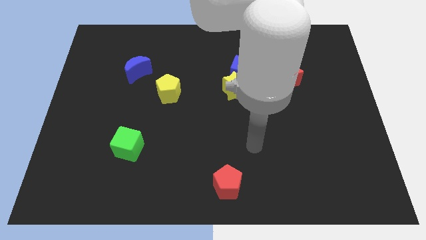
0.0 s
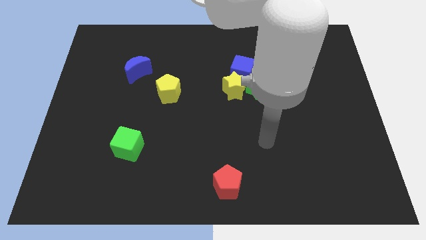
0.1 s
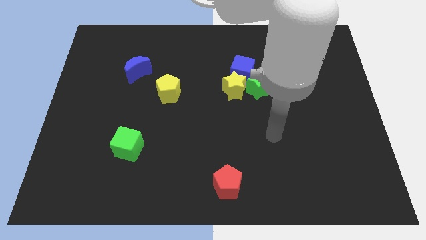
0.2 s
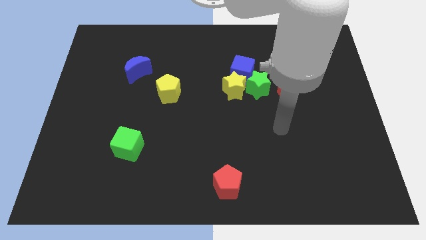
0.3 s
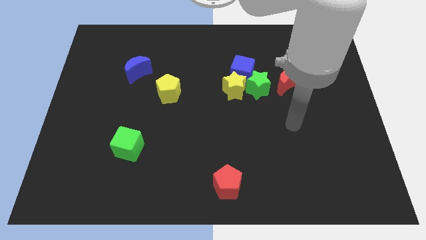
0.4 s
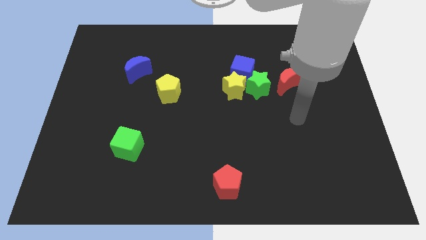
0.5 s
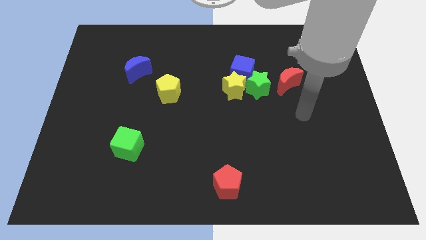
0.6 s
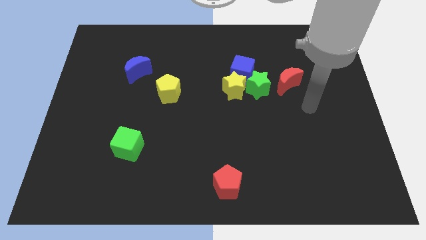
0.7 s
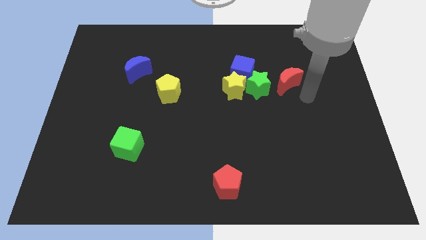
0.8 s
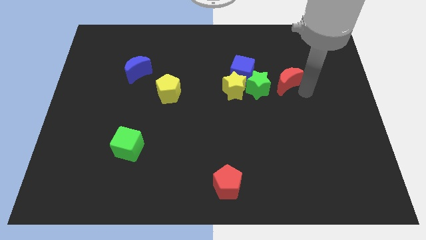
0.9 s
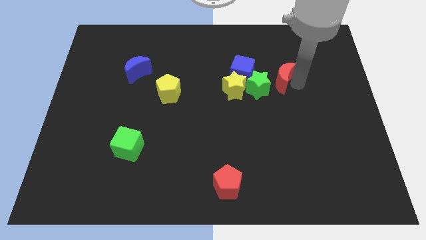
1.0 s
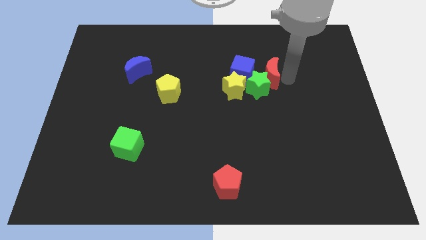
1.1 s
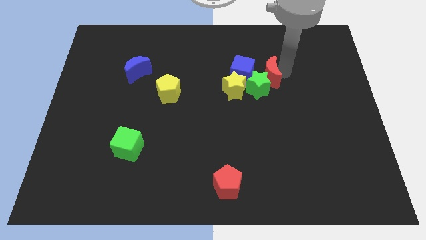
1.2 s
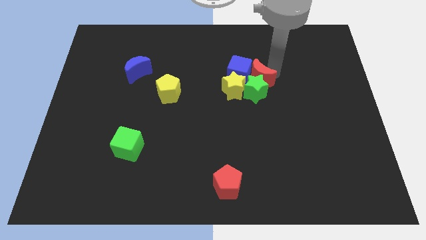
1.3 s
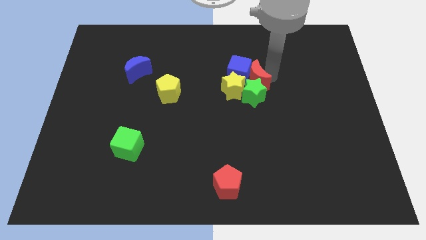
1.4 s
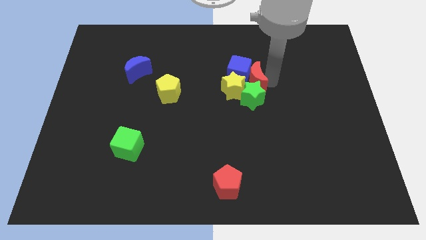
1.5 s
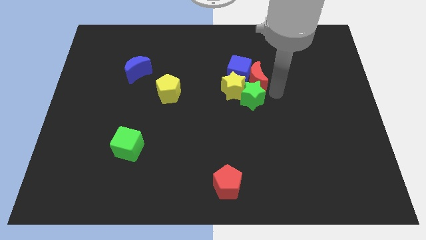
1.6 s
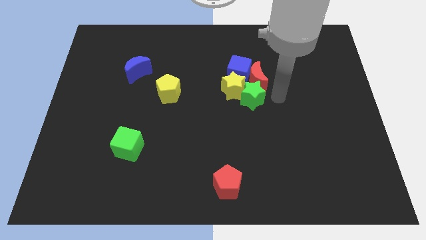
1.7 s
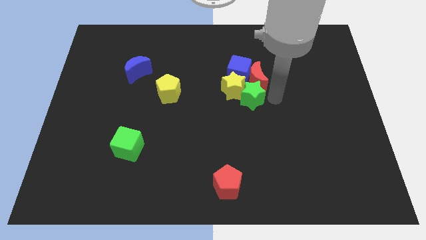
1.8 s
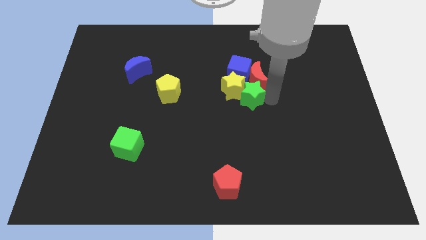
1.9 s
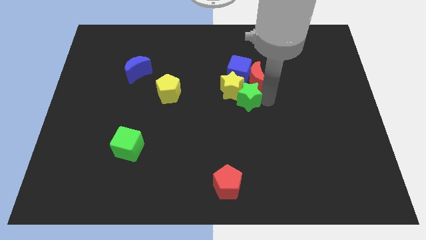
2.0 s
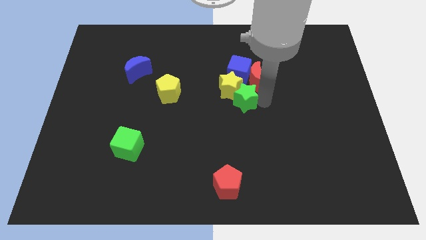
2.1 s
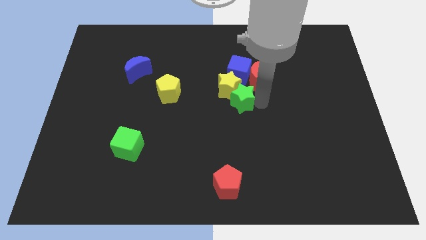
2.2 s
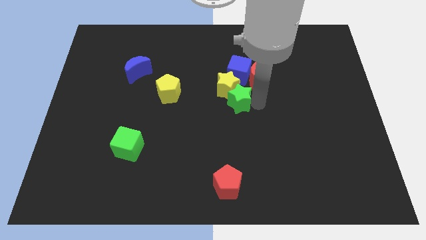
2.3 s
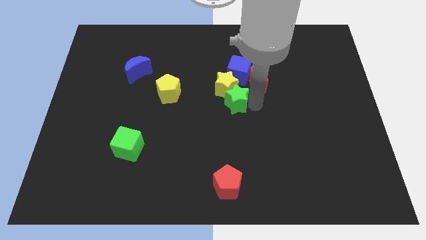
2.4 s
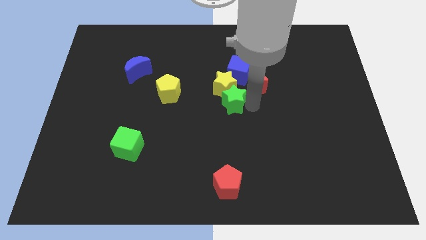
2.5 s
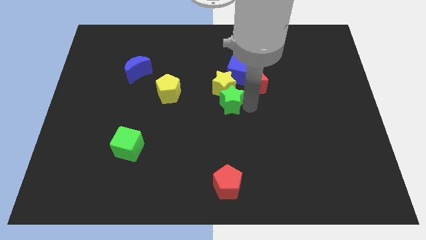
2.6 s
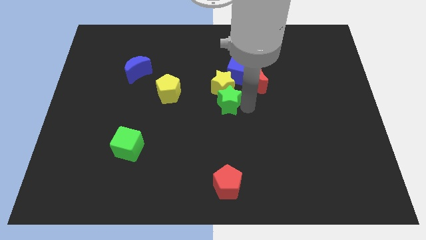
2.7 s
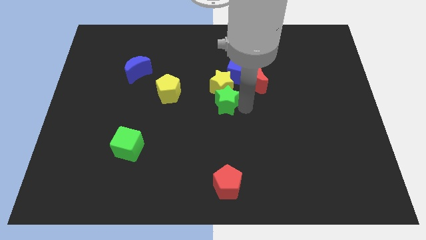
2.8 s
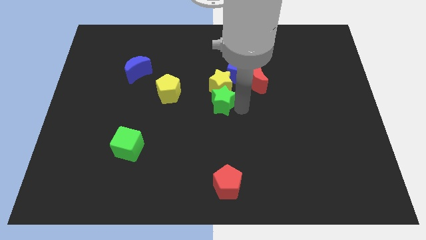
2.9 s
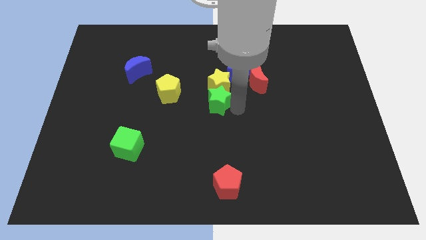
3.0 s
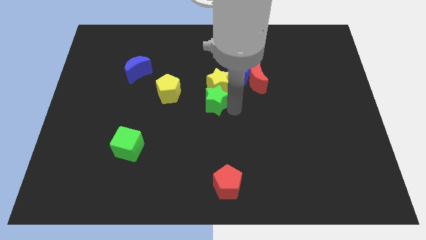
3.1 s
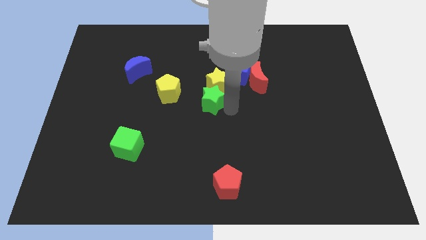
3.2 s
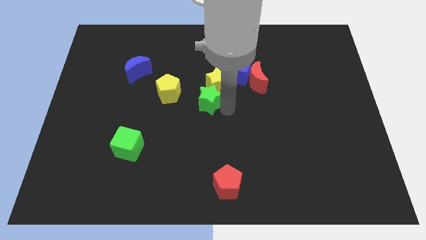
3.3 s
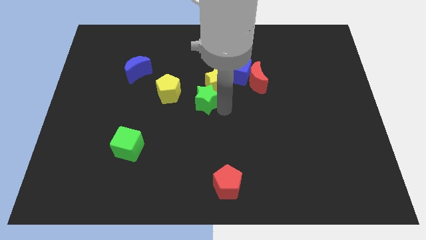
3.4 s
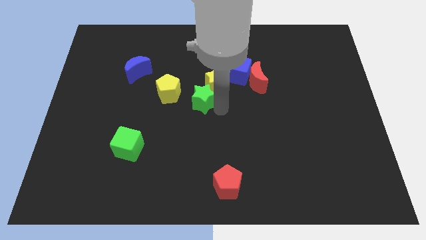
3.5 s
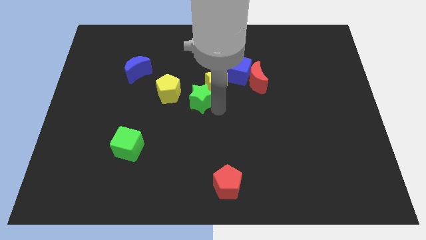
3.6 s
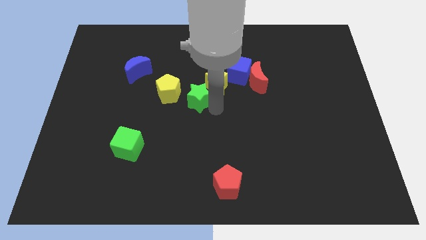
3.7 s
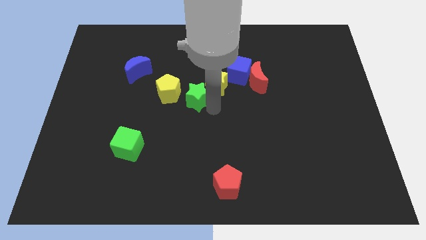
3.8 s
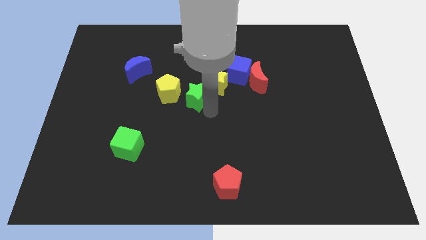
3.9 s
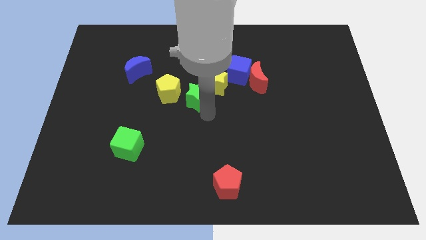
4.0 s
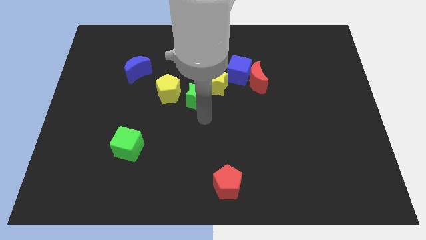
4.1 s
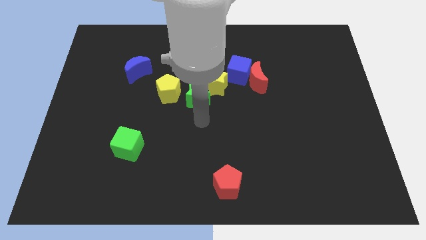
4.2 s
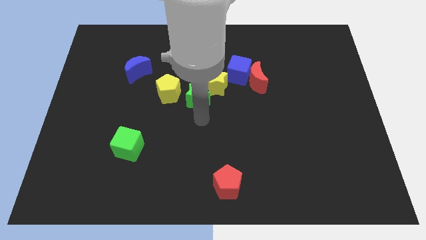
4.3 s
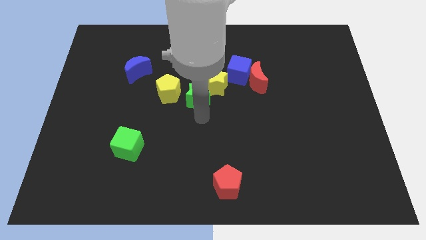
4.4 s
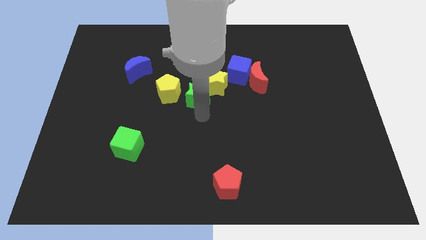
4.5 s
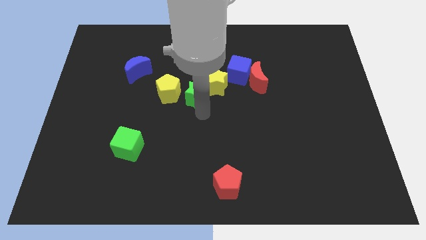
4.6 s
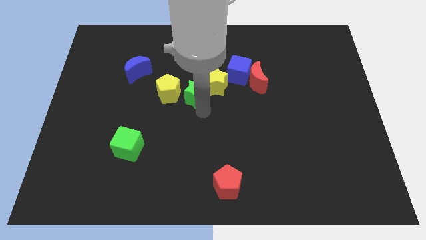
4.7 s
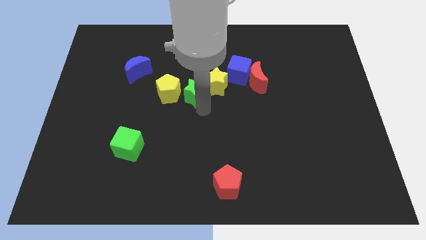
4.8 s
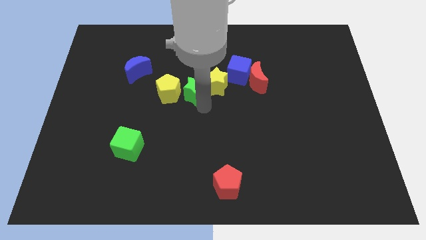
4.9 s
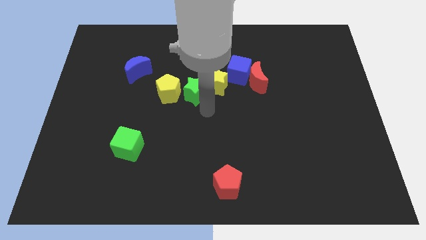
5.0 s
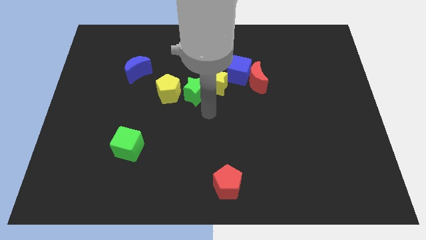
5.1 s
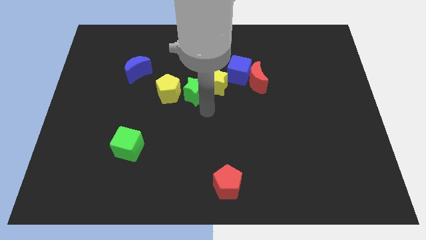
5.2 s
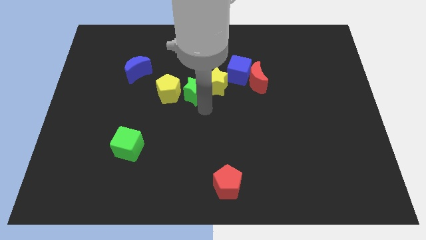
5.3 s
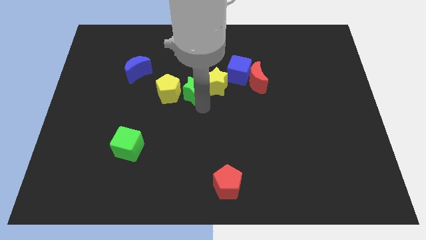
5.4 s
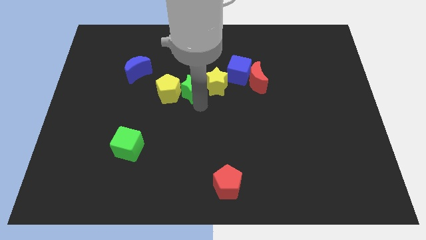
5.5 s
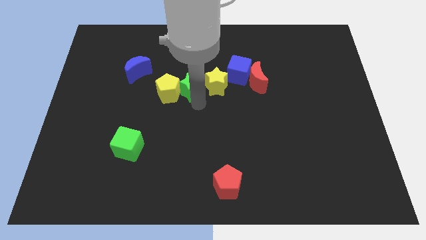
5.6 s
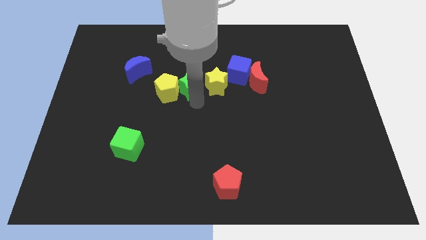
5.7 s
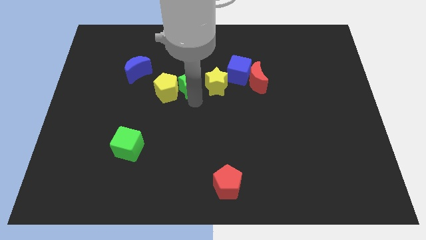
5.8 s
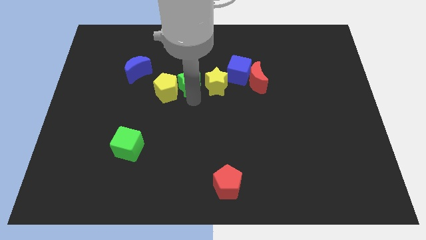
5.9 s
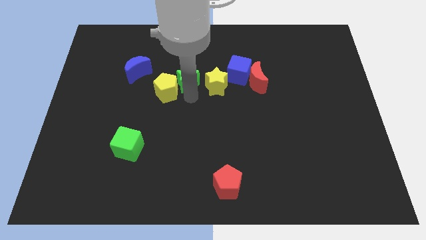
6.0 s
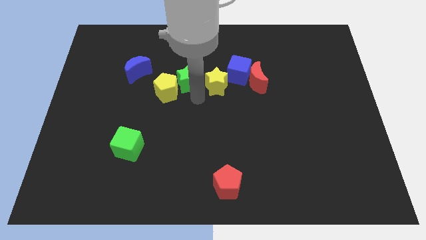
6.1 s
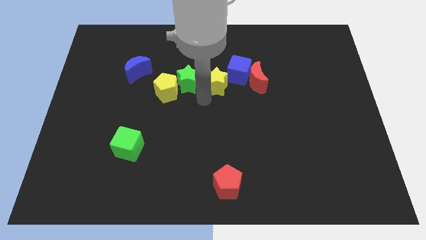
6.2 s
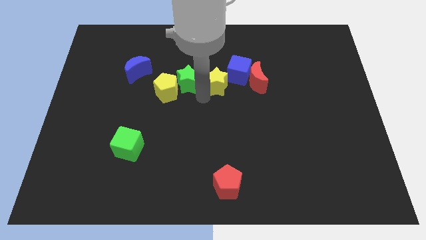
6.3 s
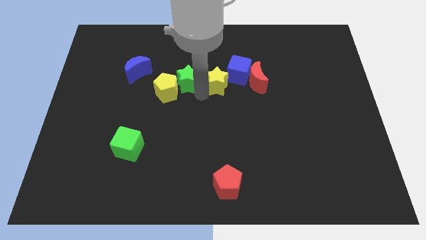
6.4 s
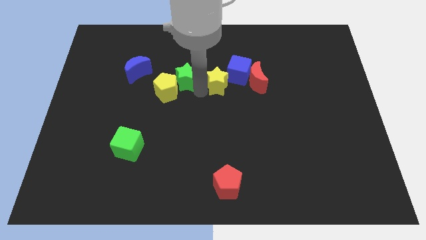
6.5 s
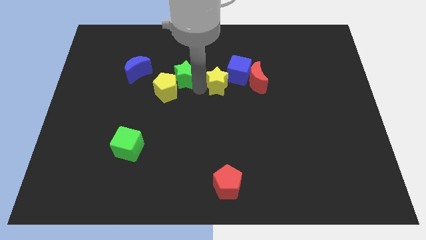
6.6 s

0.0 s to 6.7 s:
push the green star above the yellow pentagon

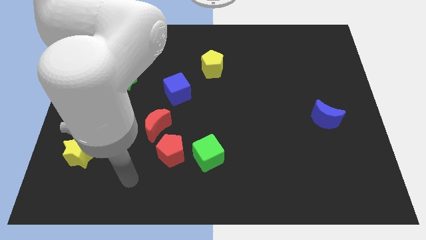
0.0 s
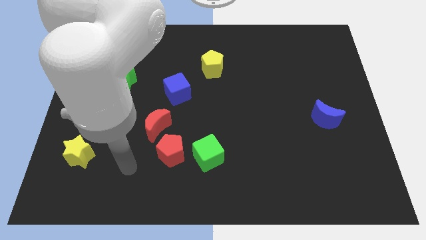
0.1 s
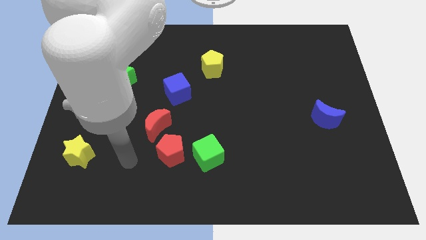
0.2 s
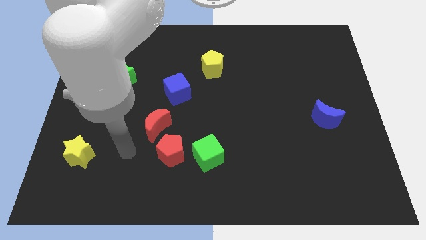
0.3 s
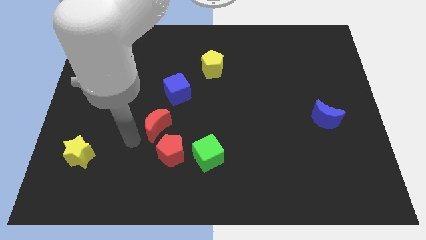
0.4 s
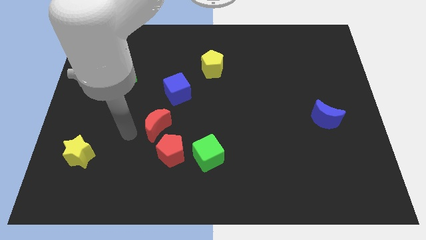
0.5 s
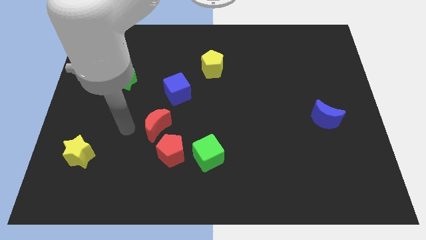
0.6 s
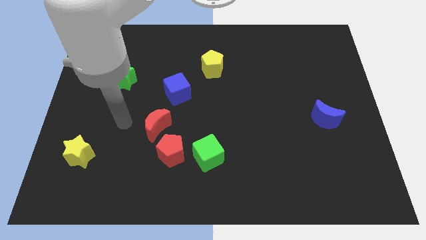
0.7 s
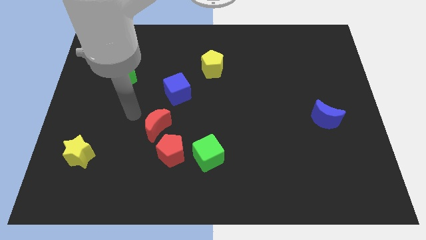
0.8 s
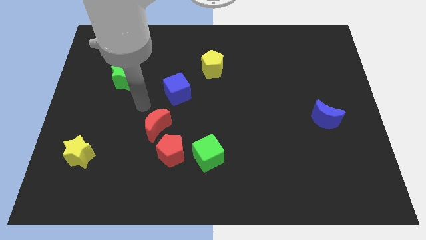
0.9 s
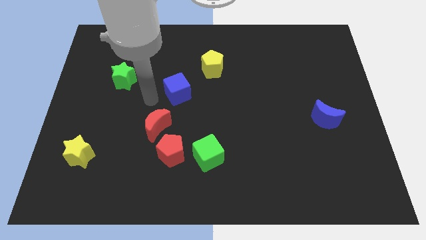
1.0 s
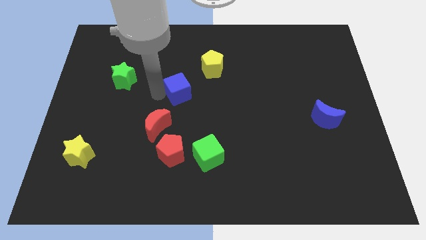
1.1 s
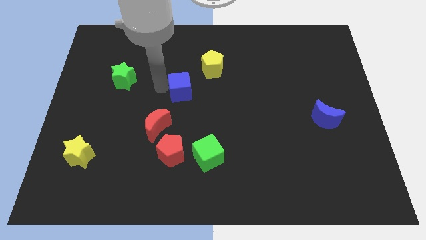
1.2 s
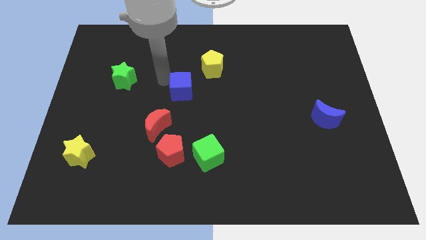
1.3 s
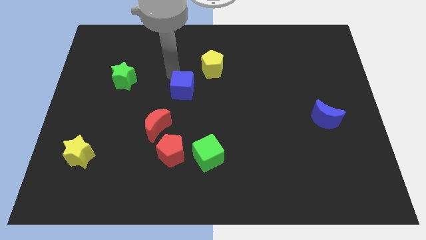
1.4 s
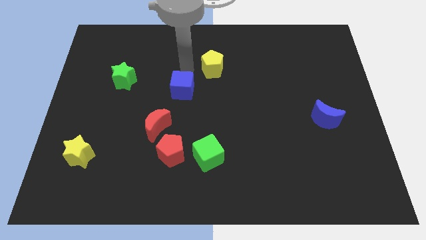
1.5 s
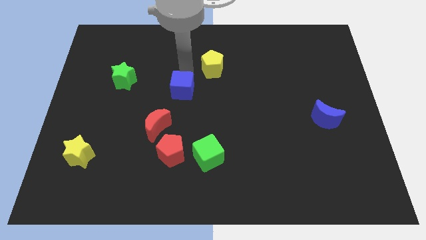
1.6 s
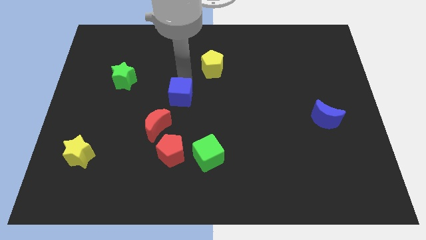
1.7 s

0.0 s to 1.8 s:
slide the blue cube to the top side of the red pentagon
